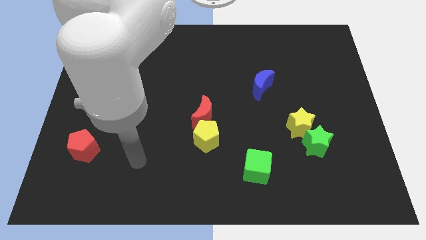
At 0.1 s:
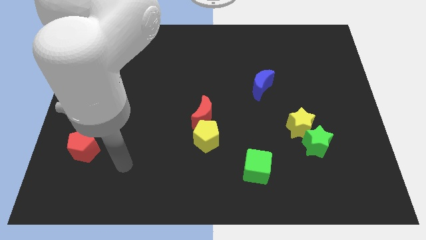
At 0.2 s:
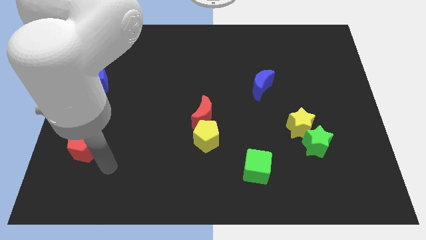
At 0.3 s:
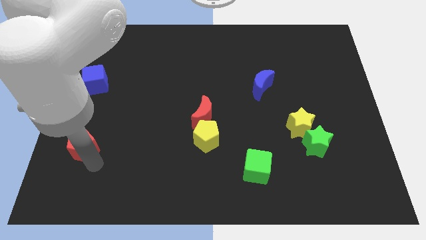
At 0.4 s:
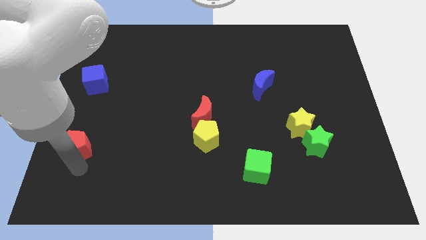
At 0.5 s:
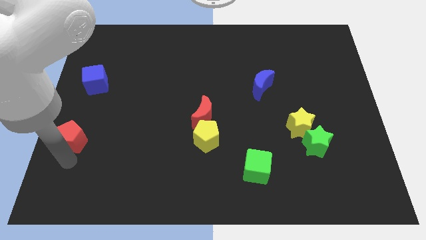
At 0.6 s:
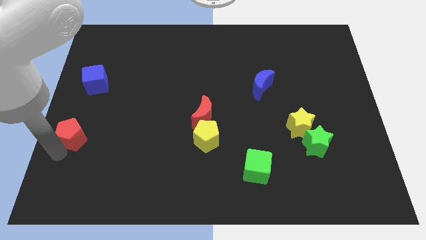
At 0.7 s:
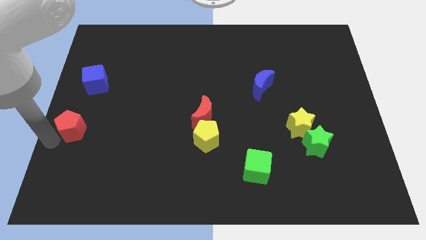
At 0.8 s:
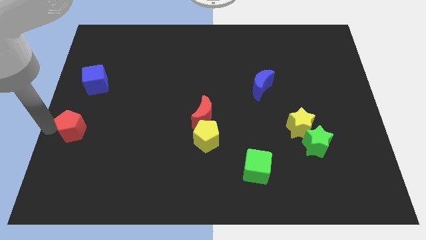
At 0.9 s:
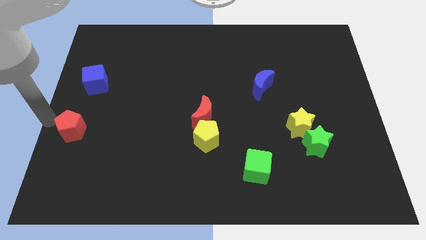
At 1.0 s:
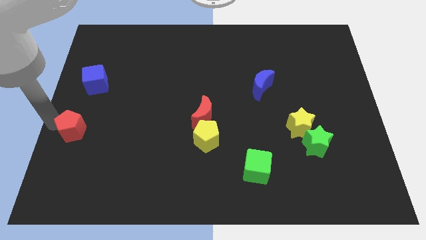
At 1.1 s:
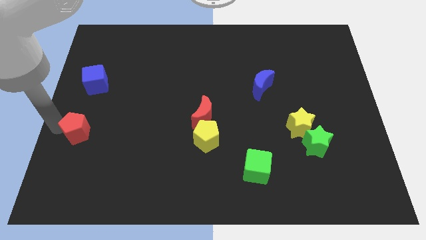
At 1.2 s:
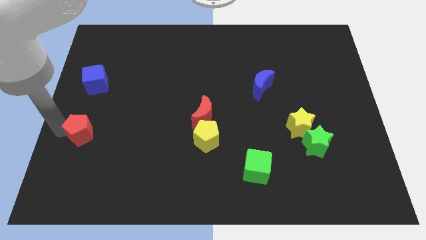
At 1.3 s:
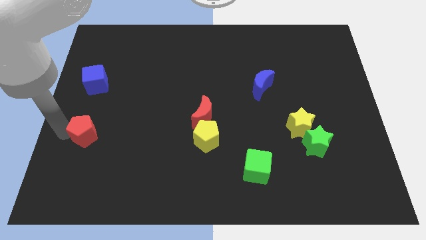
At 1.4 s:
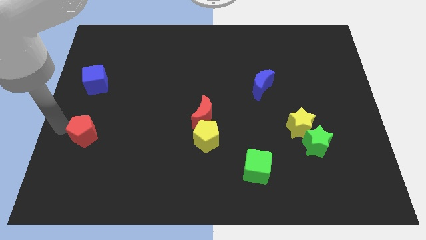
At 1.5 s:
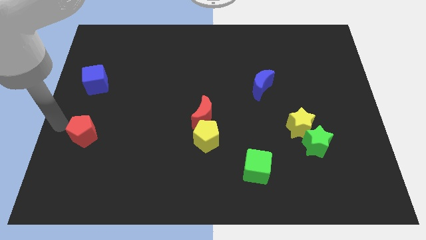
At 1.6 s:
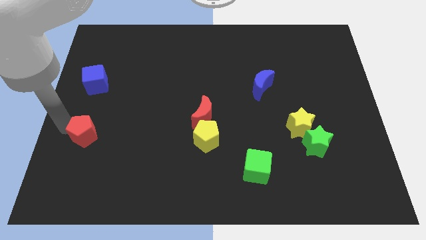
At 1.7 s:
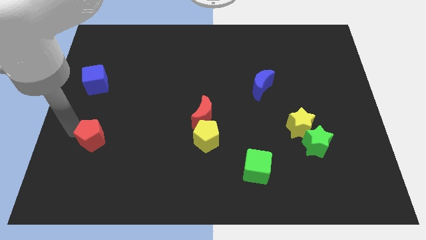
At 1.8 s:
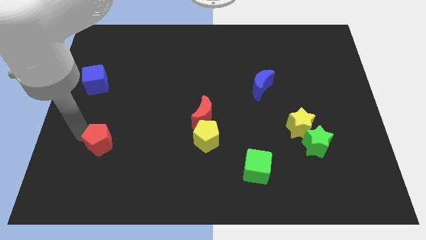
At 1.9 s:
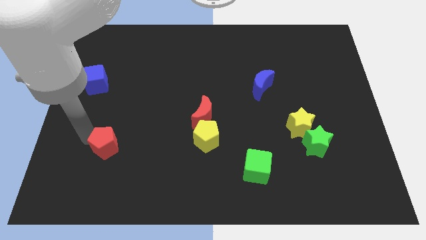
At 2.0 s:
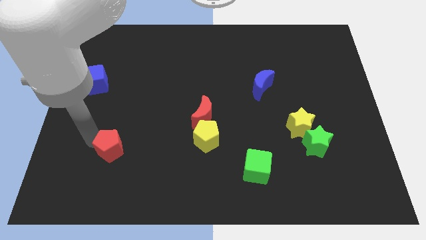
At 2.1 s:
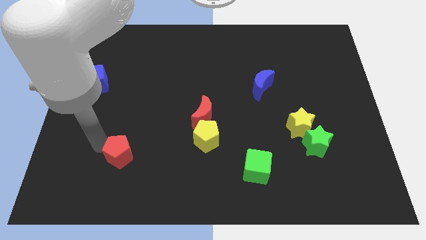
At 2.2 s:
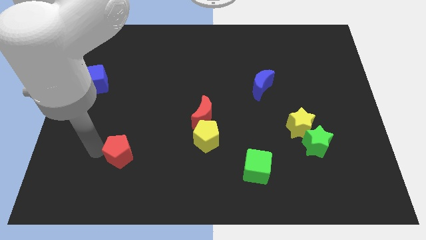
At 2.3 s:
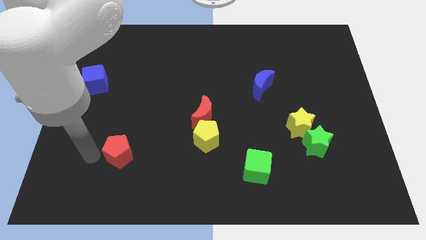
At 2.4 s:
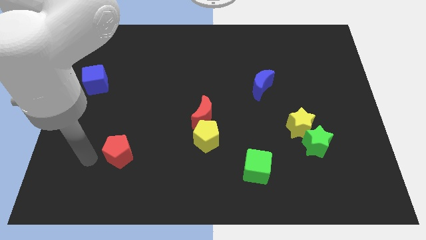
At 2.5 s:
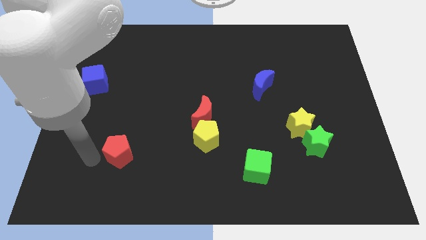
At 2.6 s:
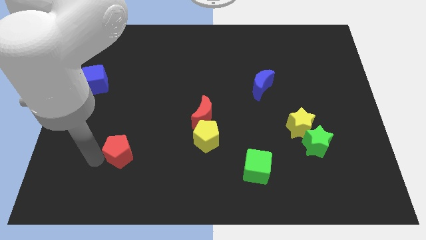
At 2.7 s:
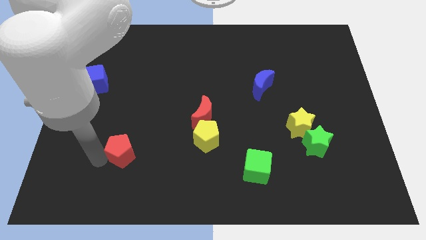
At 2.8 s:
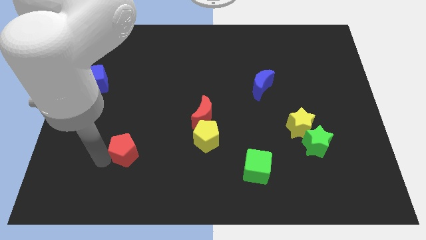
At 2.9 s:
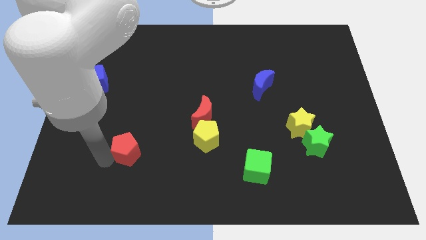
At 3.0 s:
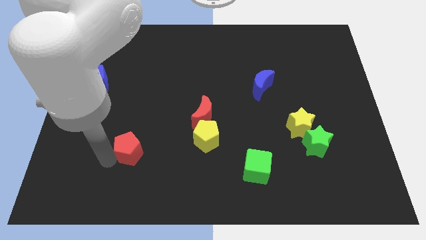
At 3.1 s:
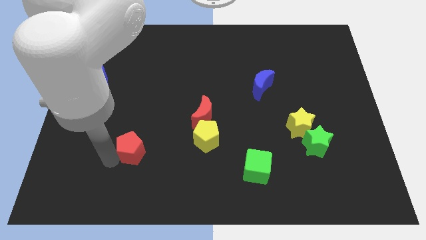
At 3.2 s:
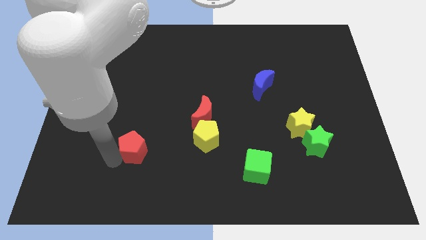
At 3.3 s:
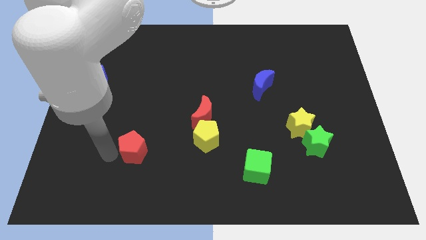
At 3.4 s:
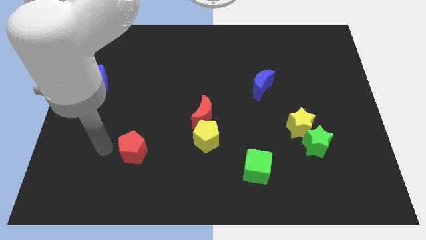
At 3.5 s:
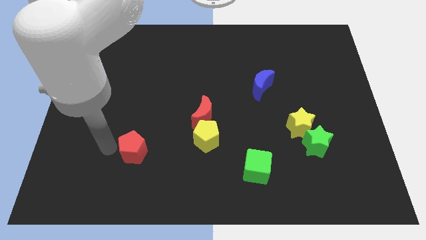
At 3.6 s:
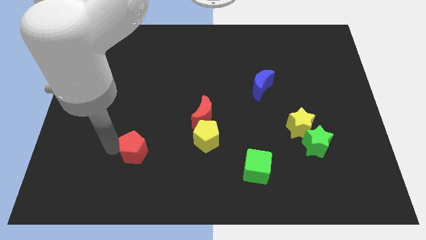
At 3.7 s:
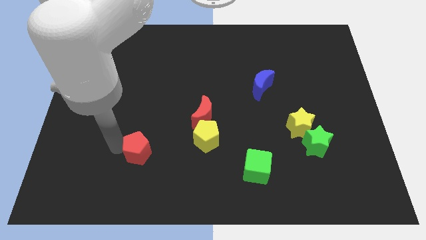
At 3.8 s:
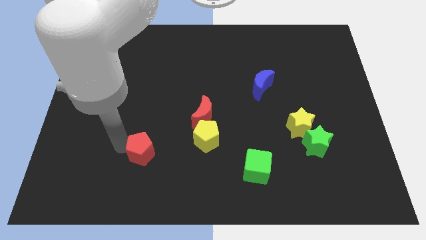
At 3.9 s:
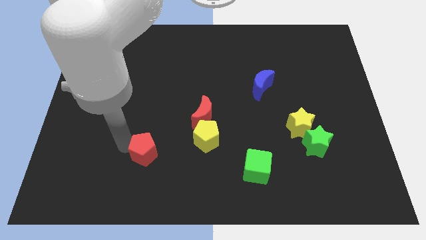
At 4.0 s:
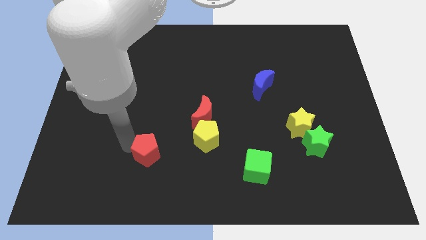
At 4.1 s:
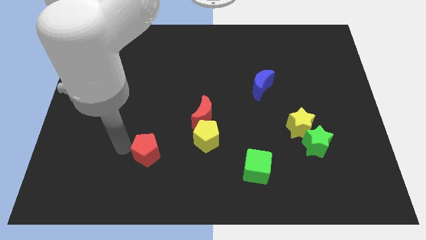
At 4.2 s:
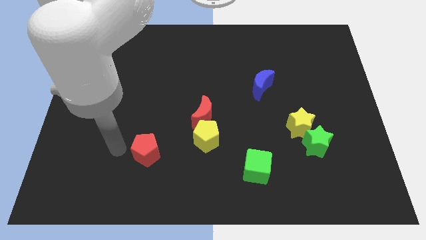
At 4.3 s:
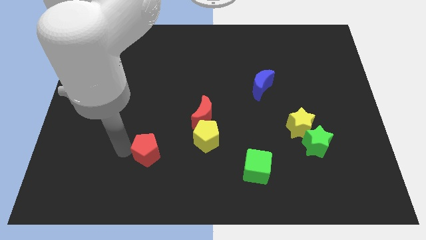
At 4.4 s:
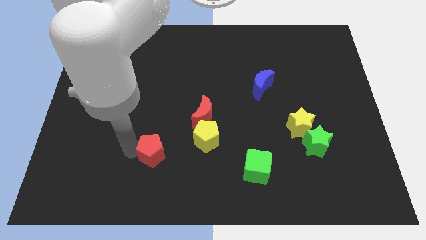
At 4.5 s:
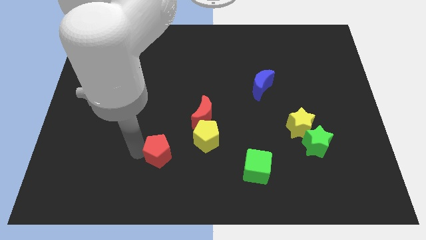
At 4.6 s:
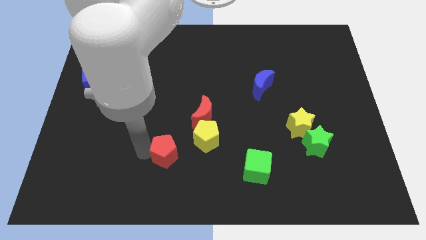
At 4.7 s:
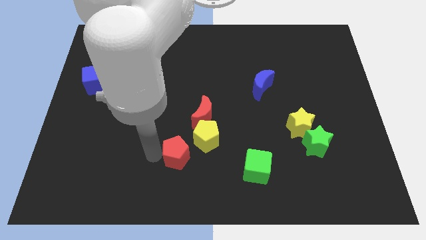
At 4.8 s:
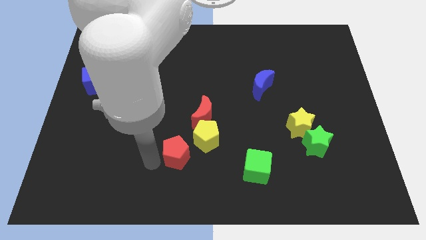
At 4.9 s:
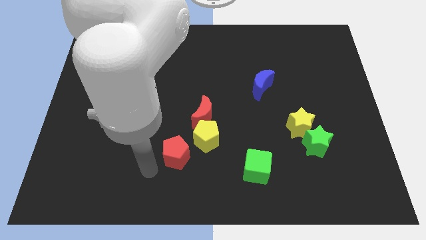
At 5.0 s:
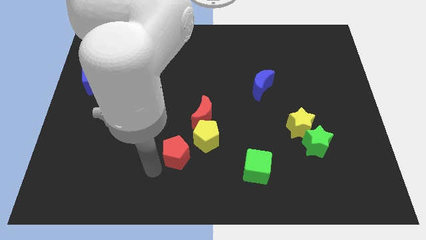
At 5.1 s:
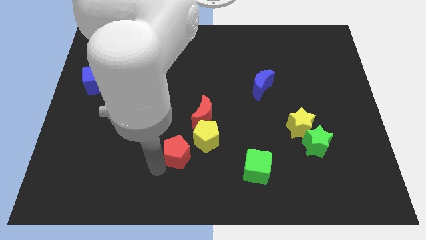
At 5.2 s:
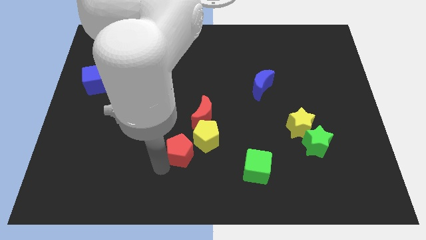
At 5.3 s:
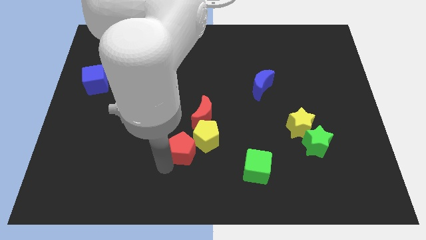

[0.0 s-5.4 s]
slide the red pentagon close to the yellow pentagon

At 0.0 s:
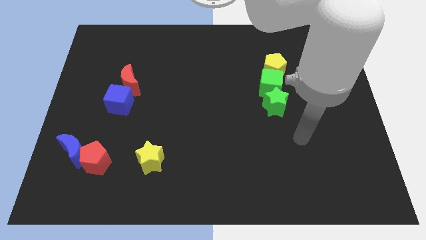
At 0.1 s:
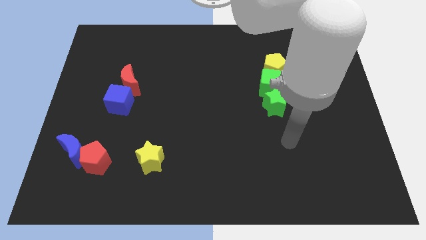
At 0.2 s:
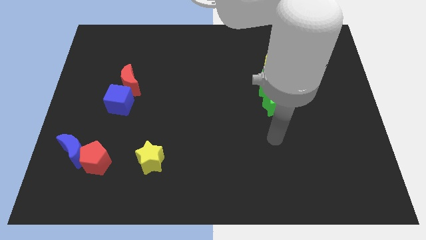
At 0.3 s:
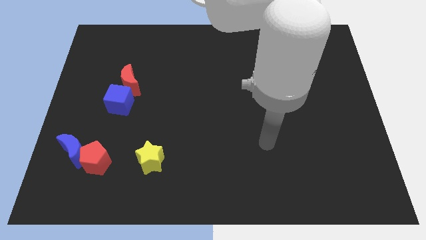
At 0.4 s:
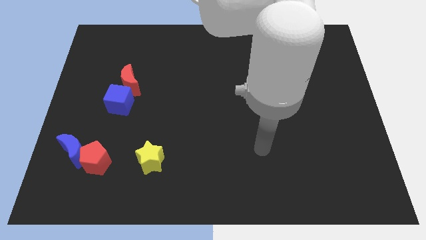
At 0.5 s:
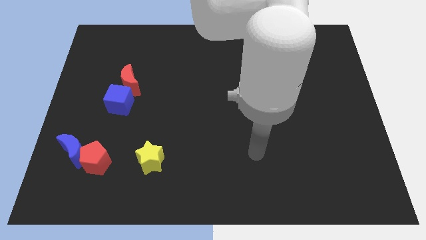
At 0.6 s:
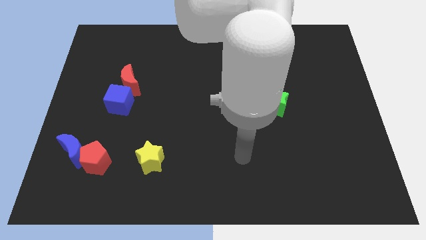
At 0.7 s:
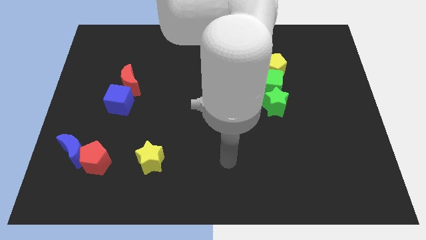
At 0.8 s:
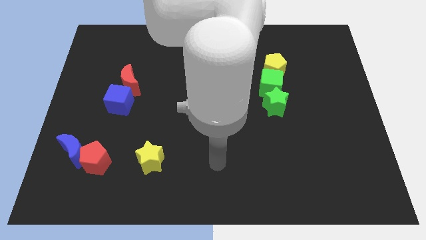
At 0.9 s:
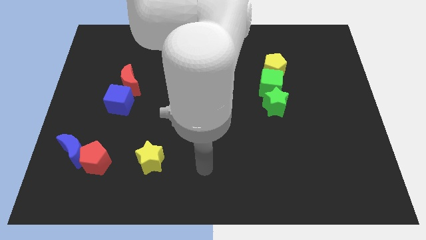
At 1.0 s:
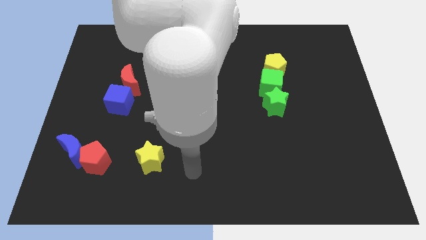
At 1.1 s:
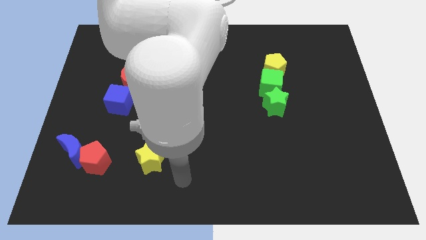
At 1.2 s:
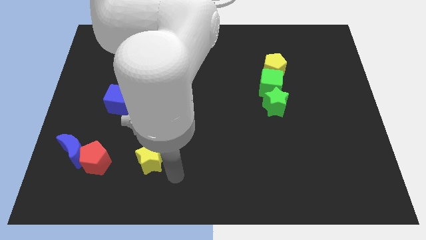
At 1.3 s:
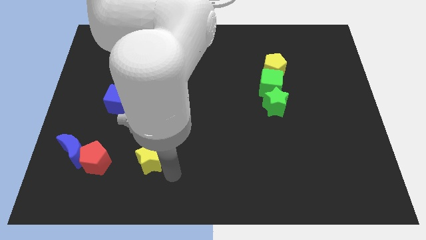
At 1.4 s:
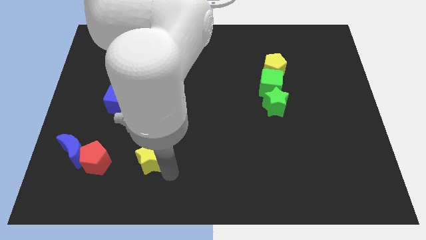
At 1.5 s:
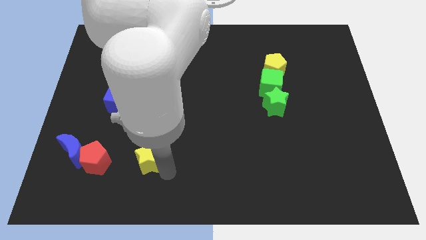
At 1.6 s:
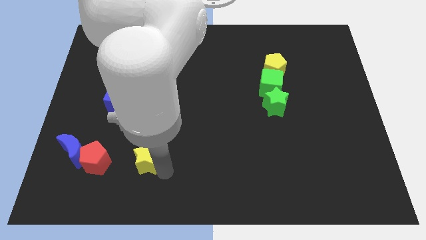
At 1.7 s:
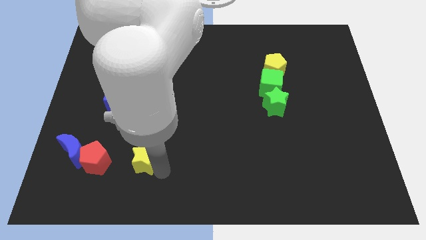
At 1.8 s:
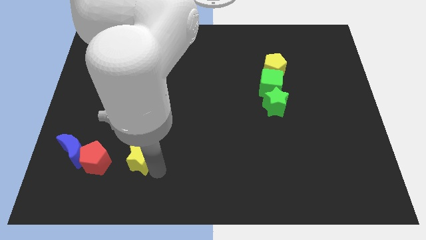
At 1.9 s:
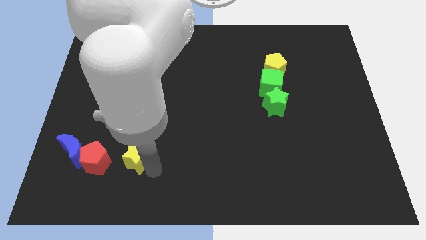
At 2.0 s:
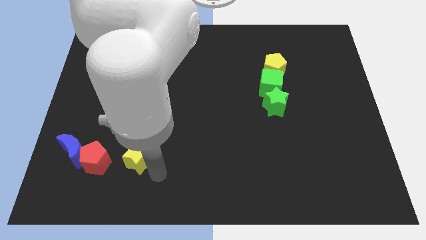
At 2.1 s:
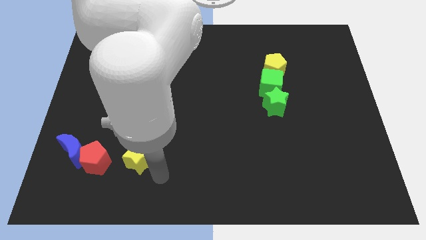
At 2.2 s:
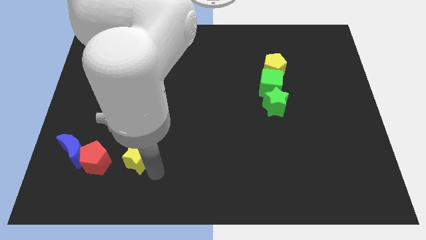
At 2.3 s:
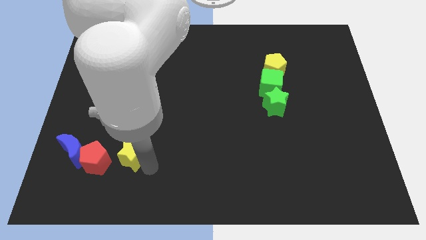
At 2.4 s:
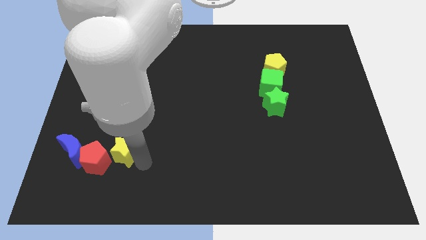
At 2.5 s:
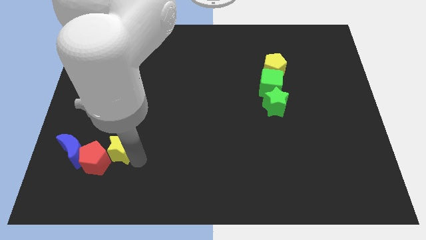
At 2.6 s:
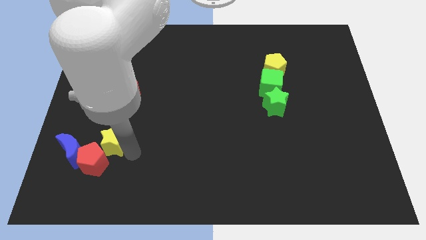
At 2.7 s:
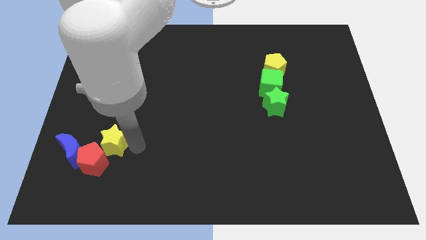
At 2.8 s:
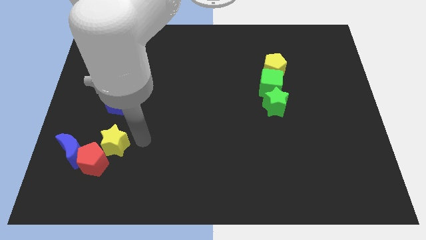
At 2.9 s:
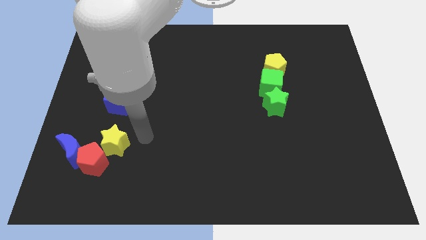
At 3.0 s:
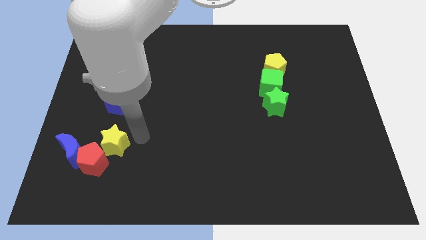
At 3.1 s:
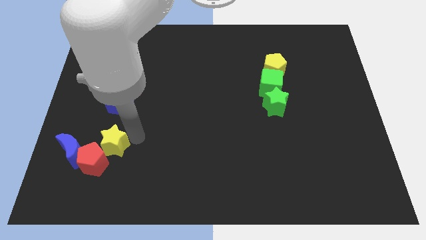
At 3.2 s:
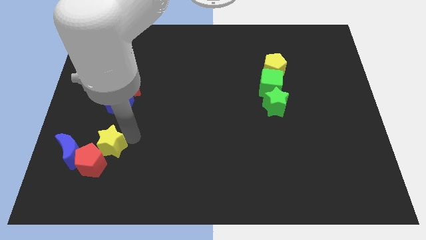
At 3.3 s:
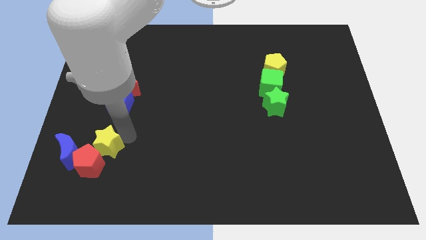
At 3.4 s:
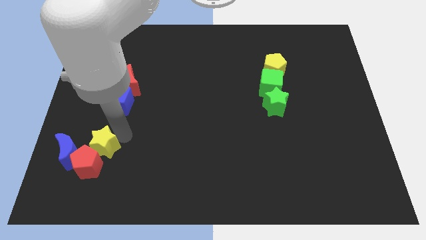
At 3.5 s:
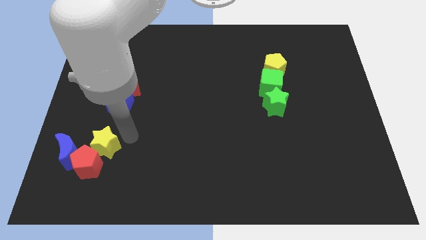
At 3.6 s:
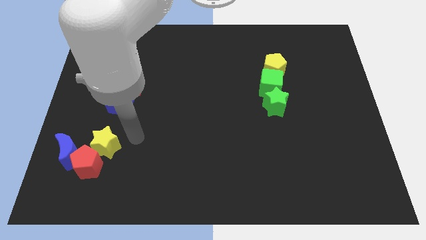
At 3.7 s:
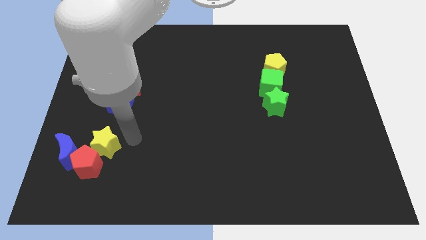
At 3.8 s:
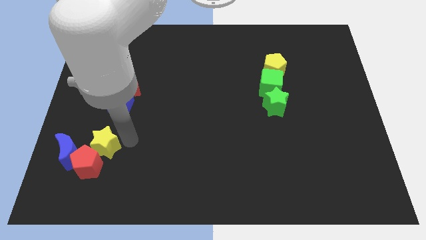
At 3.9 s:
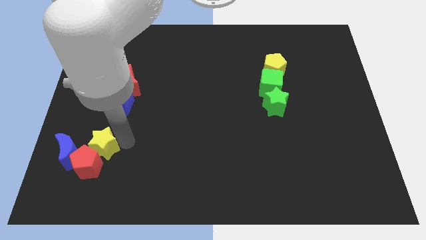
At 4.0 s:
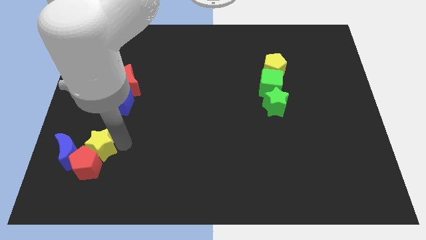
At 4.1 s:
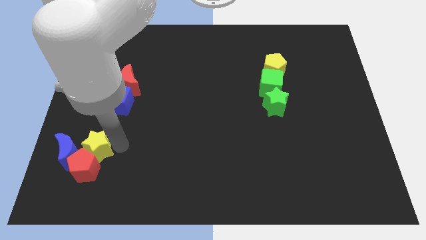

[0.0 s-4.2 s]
push the yellow star to the blue moon
